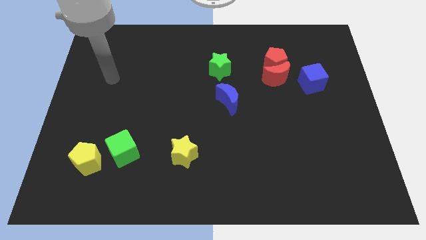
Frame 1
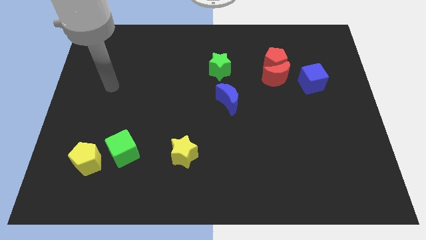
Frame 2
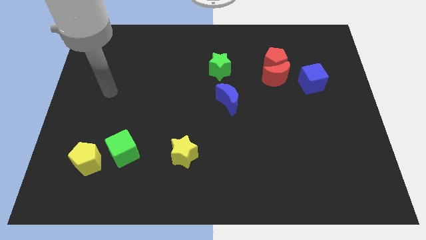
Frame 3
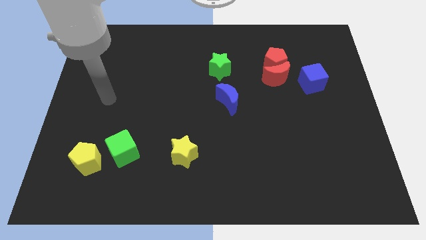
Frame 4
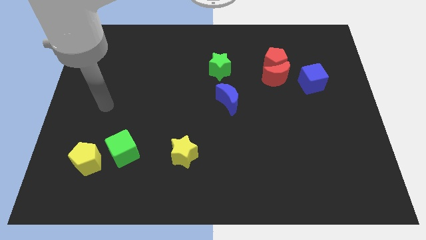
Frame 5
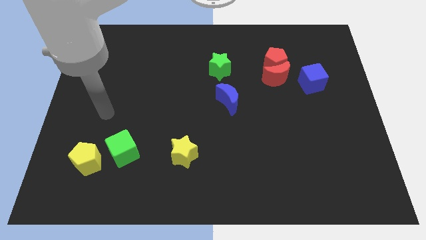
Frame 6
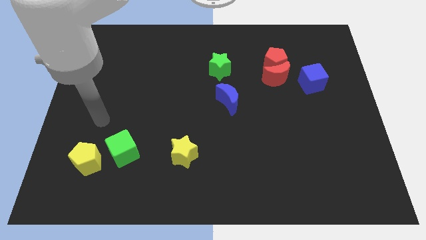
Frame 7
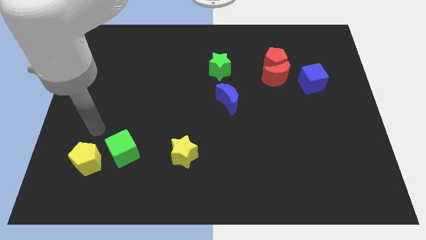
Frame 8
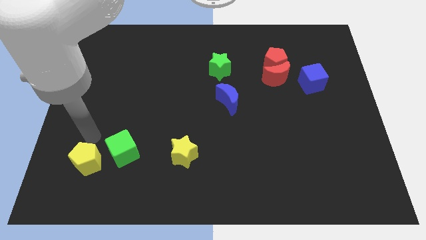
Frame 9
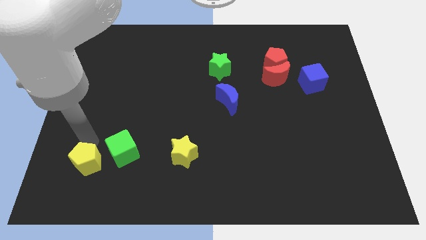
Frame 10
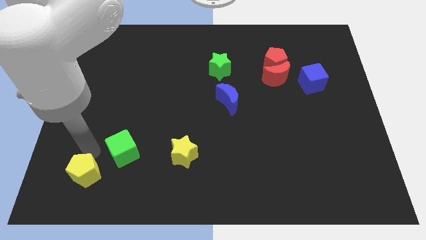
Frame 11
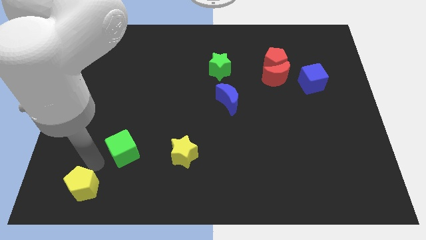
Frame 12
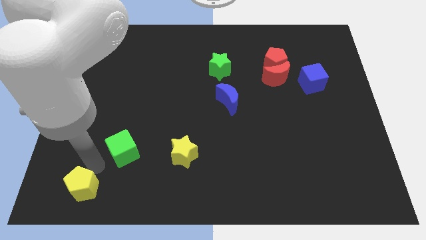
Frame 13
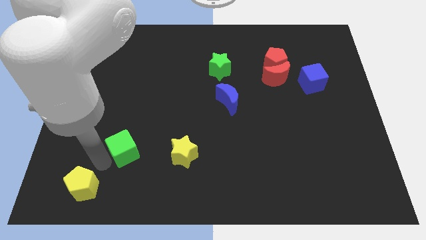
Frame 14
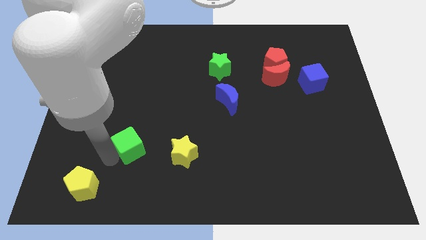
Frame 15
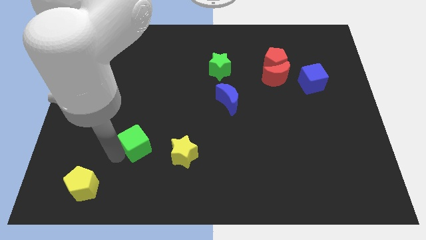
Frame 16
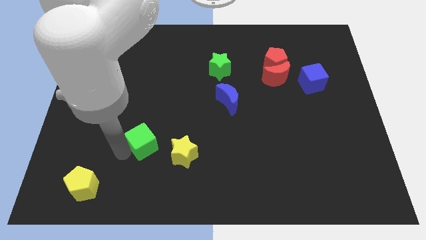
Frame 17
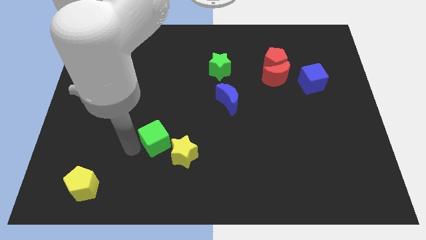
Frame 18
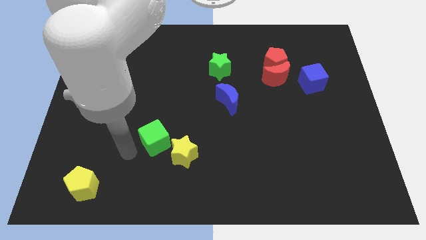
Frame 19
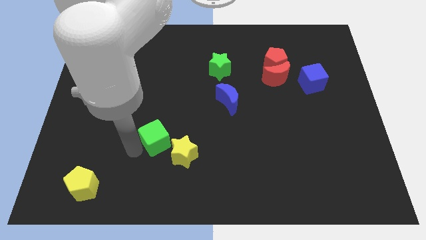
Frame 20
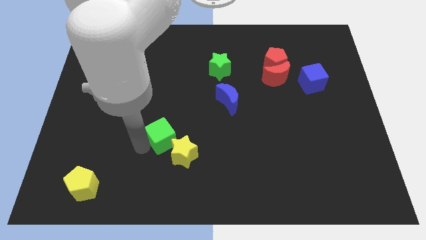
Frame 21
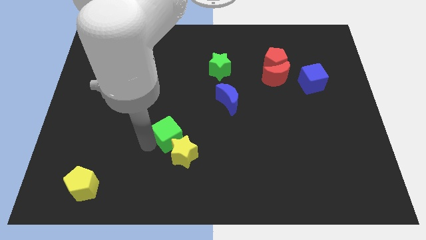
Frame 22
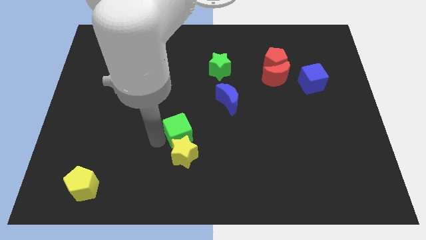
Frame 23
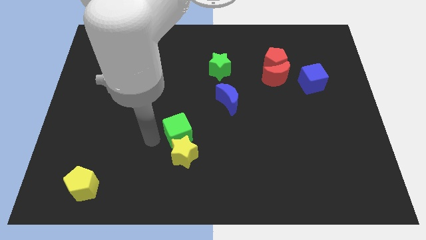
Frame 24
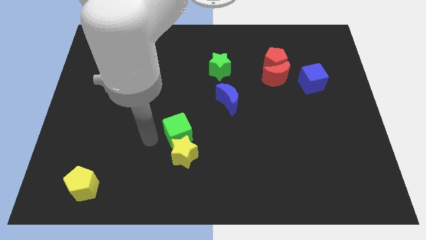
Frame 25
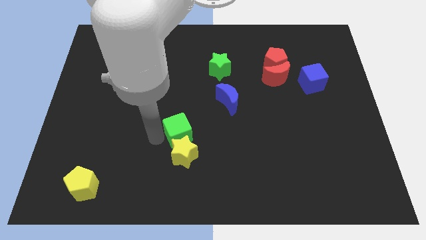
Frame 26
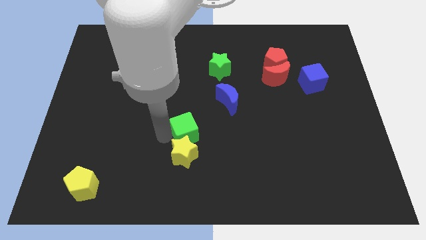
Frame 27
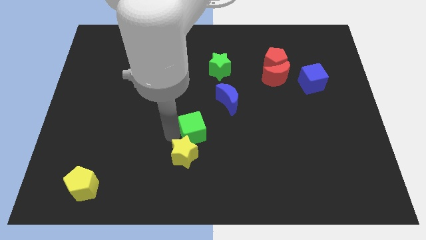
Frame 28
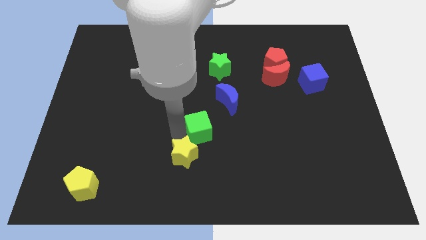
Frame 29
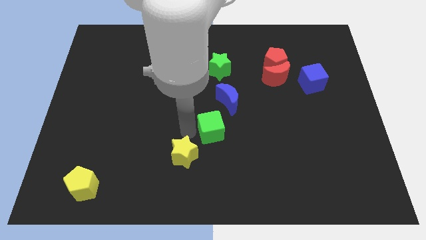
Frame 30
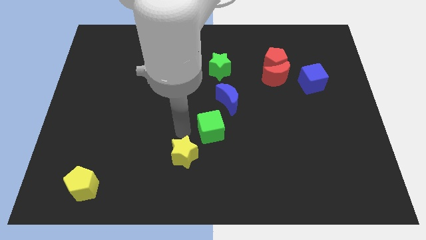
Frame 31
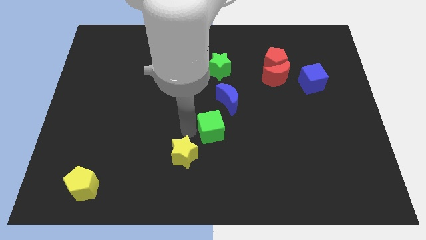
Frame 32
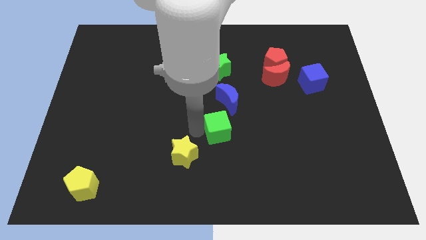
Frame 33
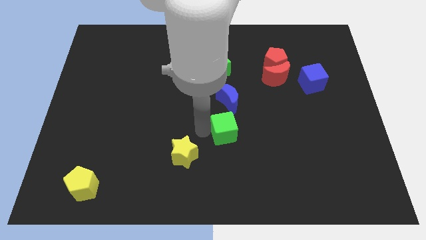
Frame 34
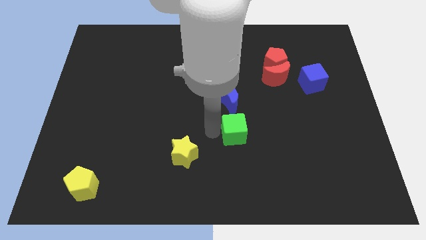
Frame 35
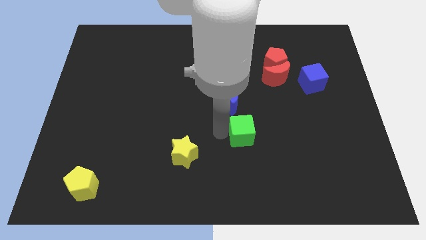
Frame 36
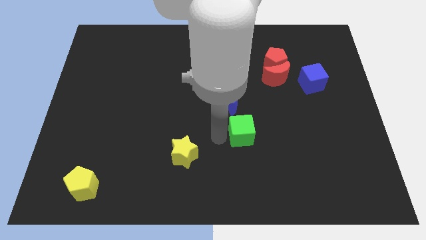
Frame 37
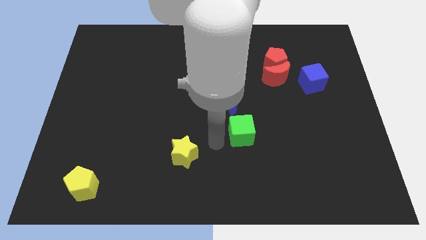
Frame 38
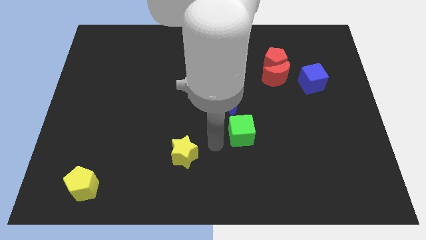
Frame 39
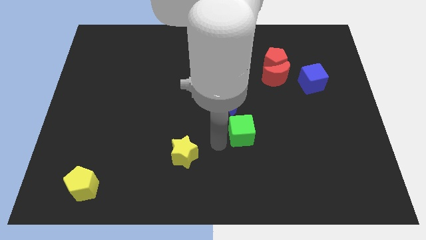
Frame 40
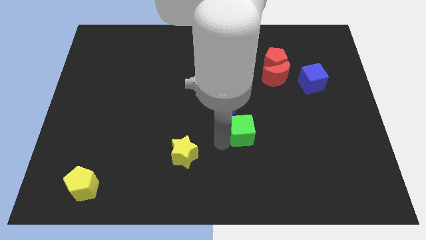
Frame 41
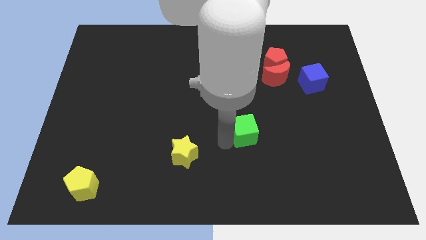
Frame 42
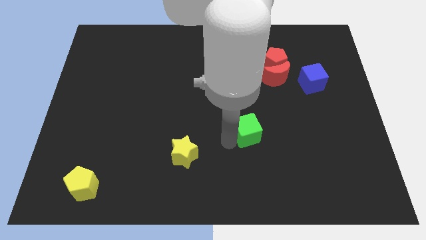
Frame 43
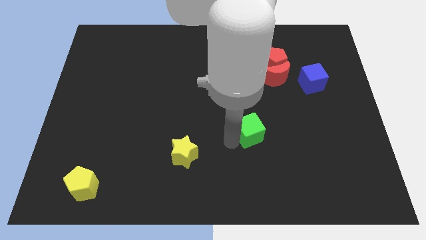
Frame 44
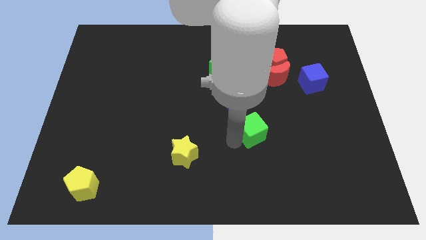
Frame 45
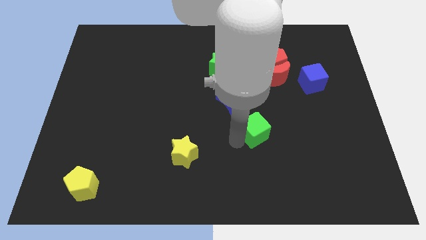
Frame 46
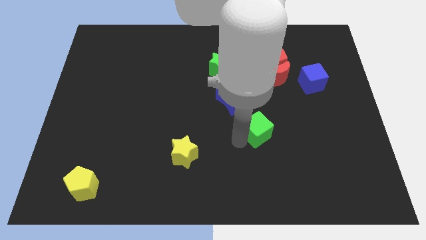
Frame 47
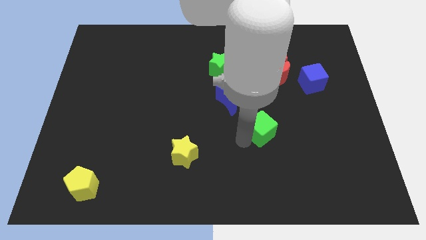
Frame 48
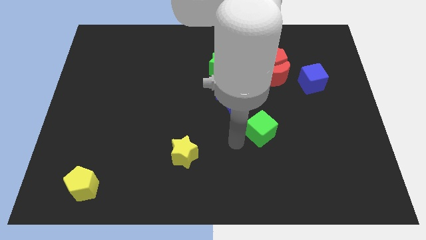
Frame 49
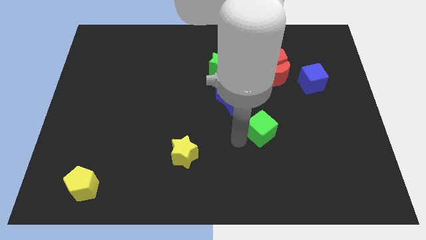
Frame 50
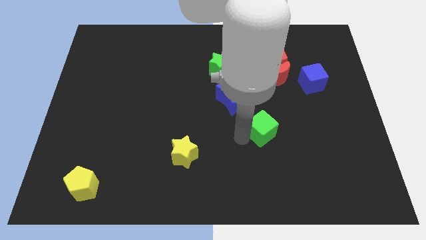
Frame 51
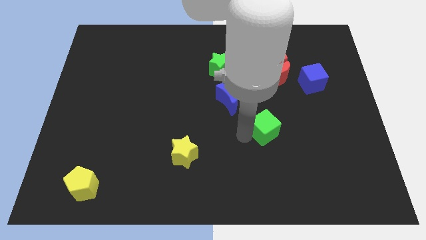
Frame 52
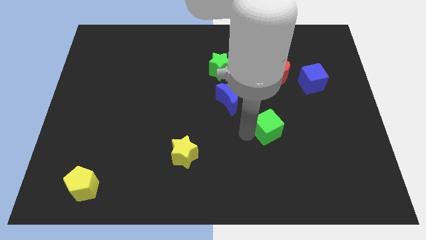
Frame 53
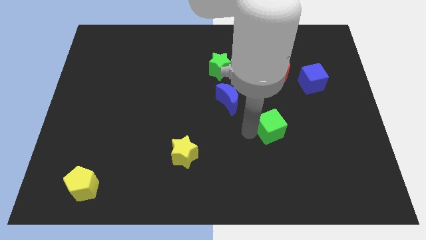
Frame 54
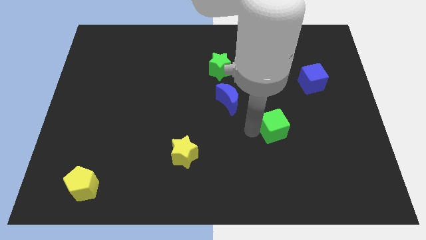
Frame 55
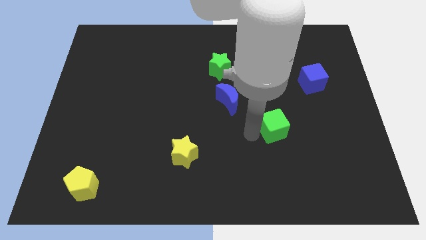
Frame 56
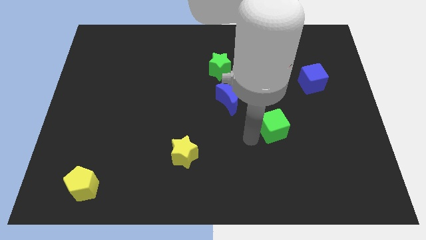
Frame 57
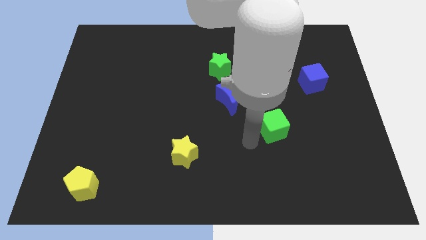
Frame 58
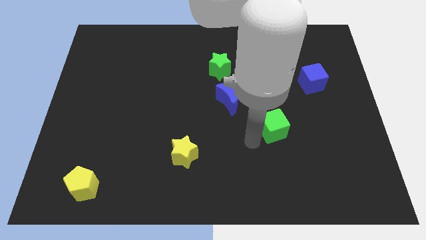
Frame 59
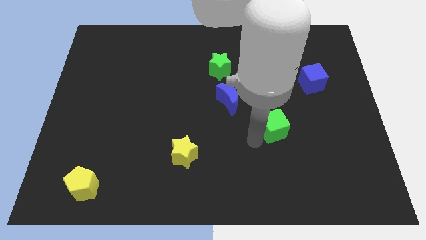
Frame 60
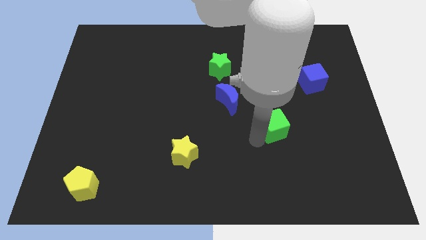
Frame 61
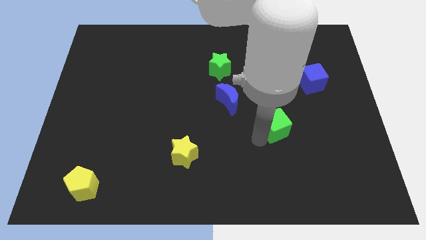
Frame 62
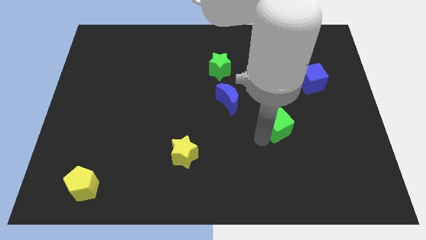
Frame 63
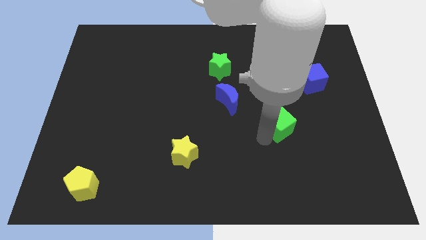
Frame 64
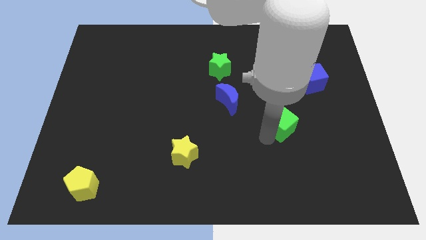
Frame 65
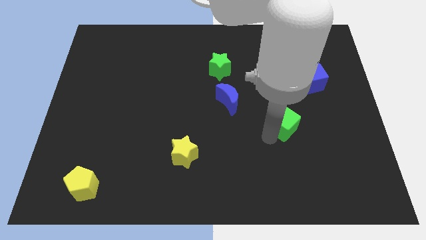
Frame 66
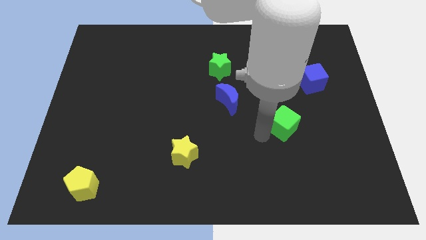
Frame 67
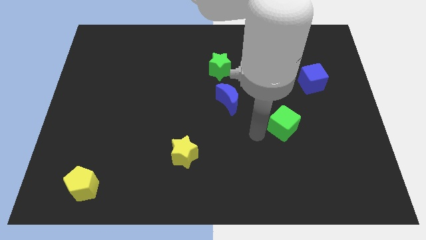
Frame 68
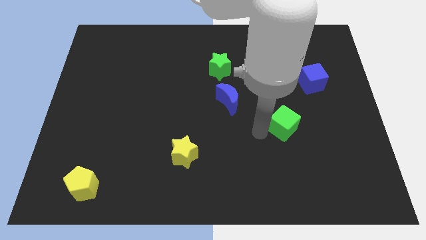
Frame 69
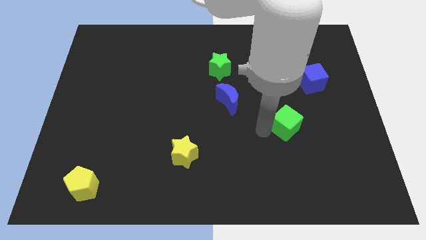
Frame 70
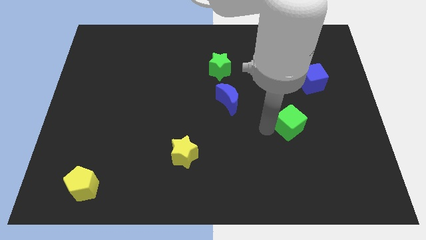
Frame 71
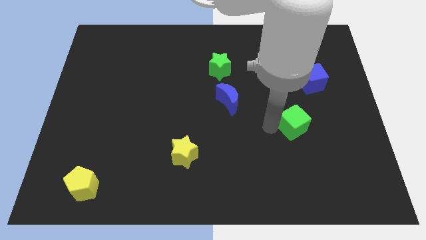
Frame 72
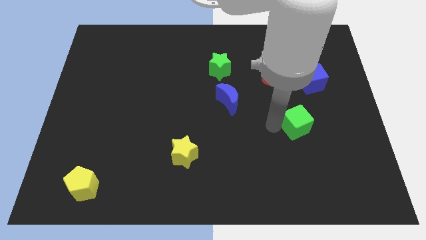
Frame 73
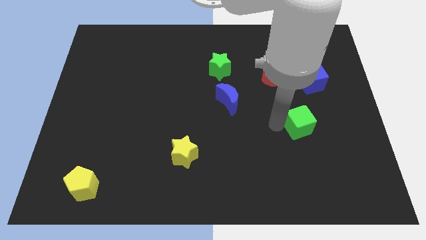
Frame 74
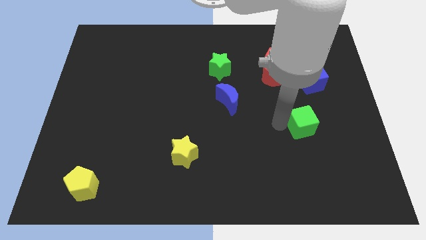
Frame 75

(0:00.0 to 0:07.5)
move the green cube to the bottom side of the blue cube

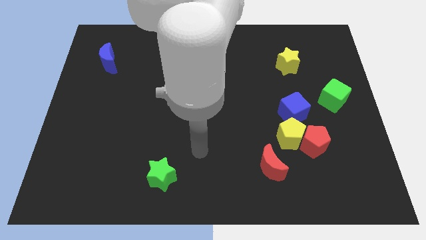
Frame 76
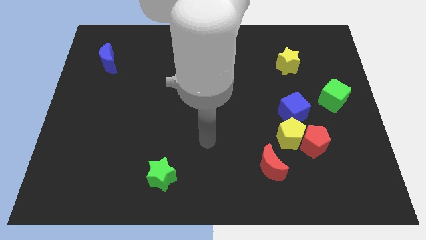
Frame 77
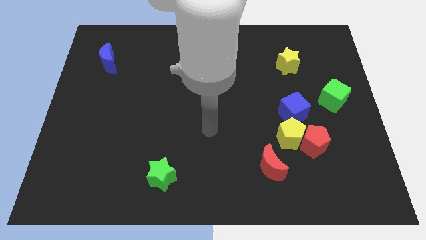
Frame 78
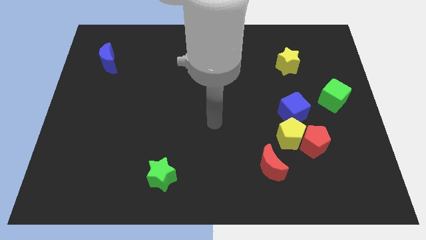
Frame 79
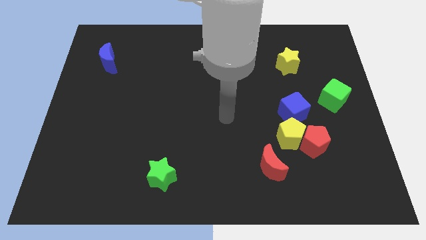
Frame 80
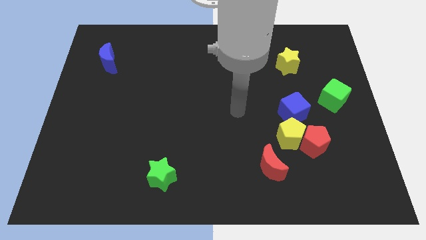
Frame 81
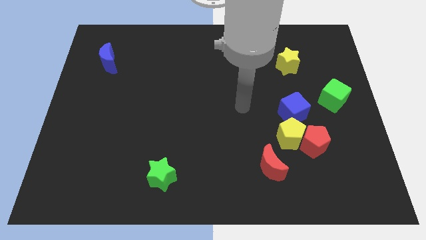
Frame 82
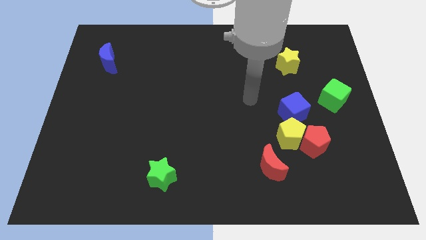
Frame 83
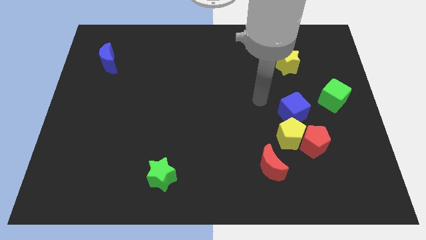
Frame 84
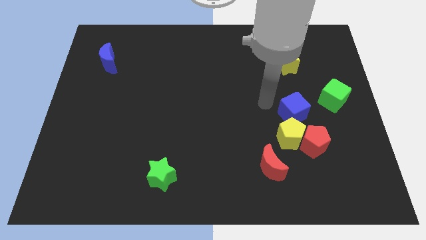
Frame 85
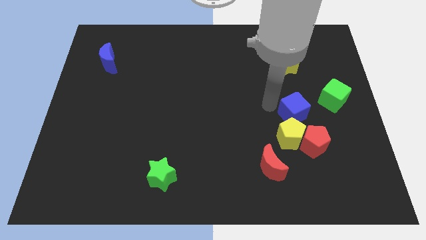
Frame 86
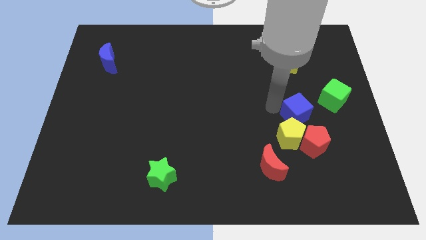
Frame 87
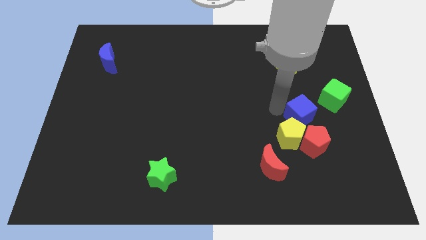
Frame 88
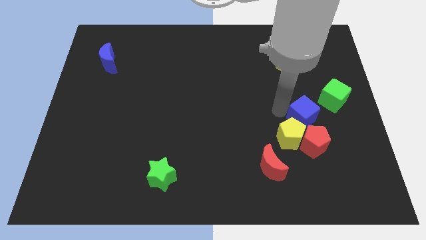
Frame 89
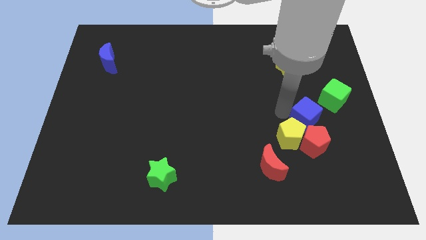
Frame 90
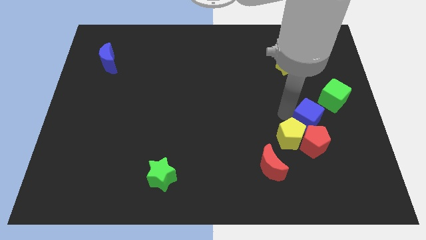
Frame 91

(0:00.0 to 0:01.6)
move the blue cube to the top right side of the red pentagon
